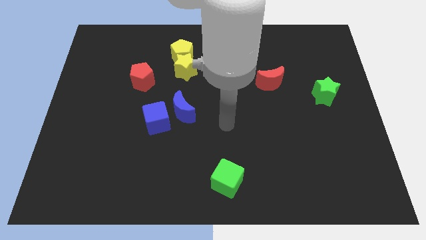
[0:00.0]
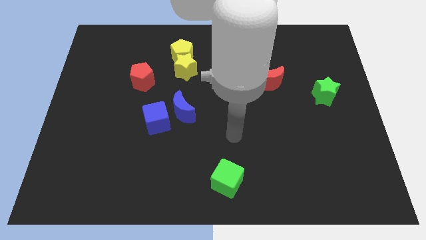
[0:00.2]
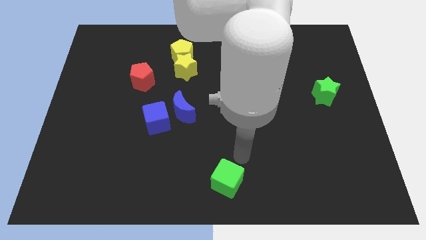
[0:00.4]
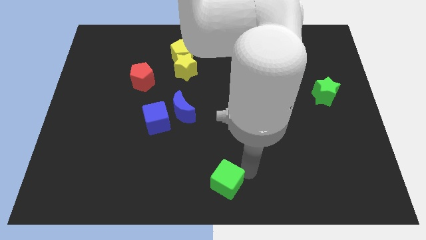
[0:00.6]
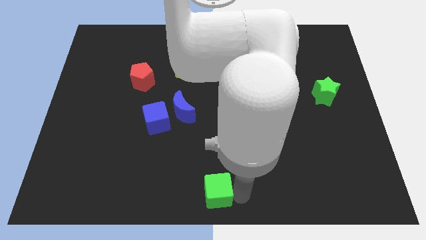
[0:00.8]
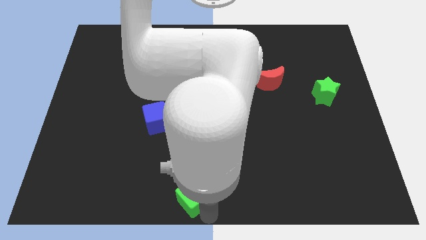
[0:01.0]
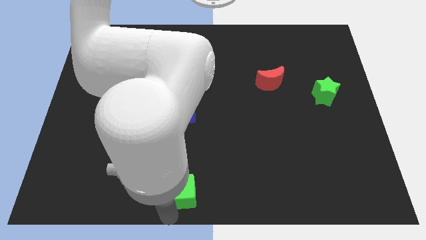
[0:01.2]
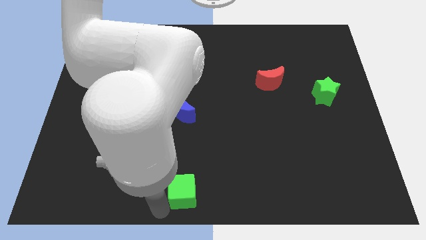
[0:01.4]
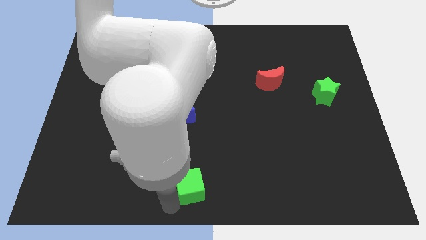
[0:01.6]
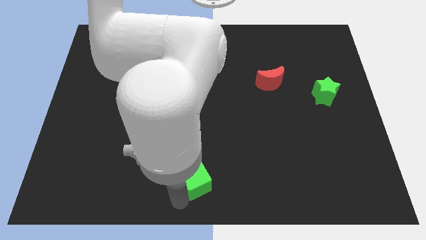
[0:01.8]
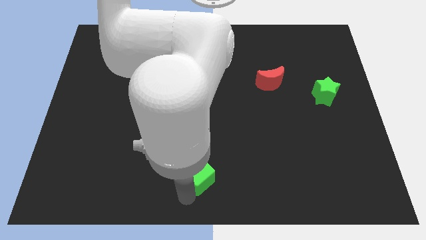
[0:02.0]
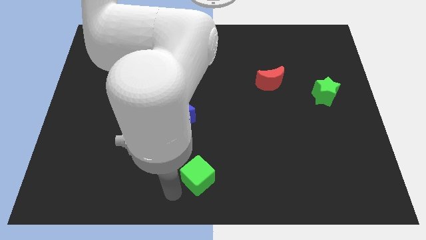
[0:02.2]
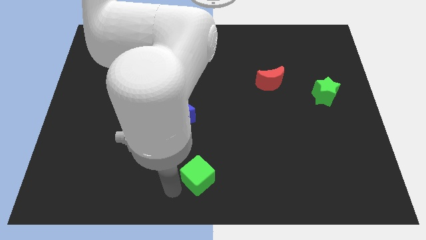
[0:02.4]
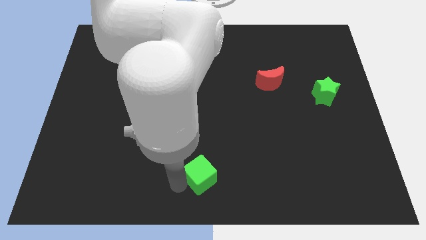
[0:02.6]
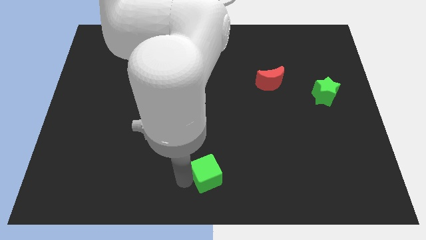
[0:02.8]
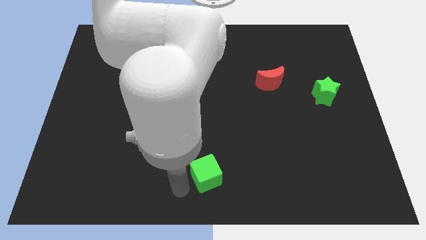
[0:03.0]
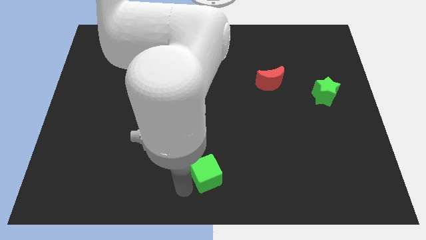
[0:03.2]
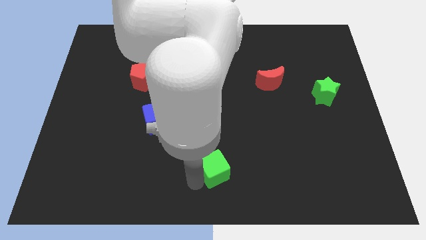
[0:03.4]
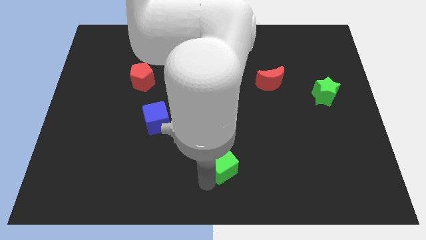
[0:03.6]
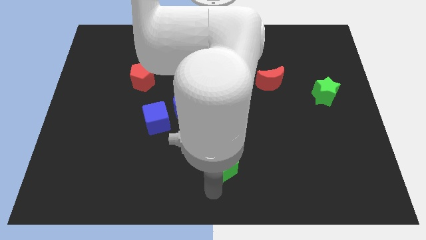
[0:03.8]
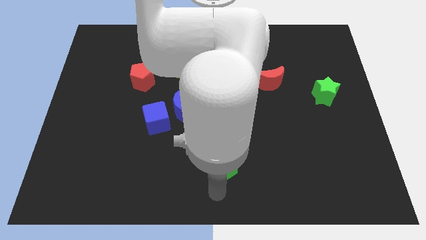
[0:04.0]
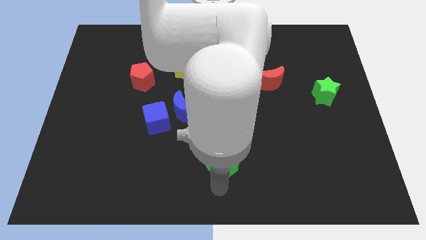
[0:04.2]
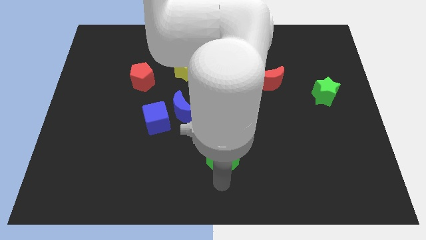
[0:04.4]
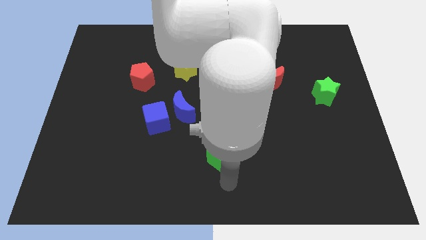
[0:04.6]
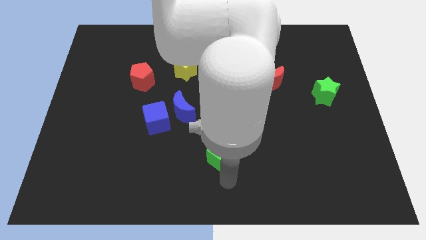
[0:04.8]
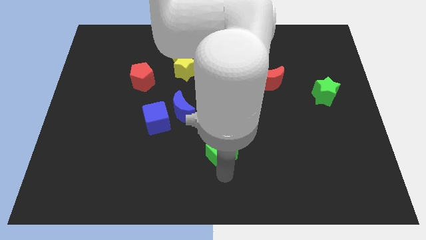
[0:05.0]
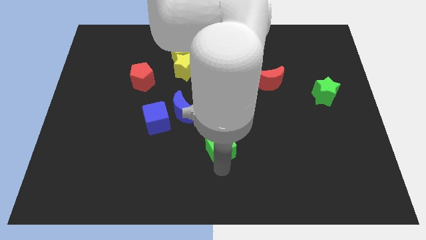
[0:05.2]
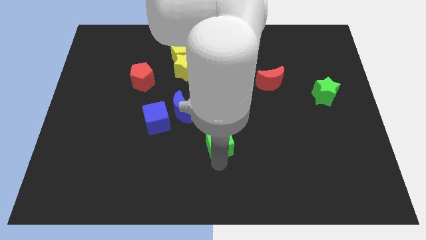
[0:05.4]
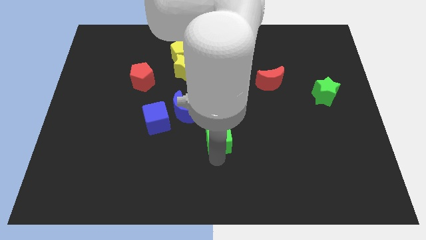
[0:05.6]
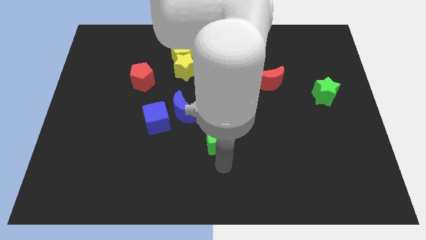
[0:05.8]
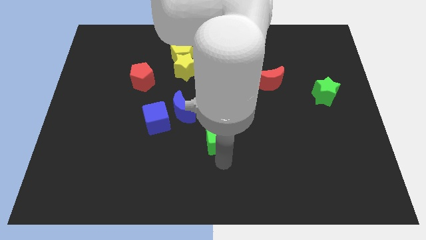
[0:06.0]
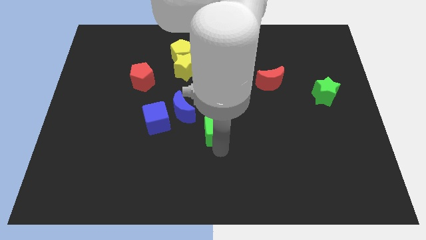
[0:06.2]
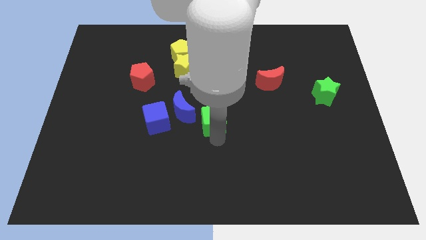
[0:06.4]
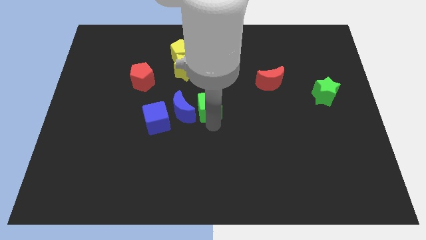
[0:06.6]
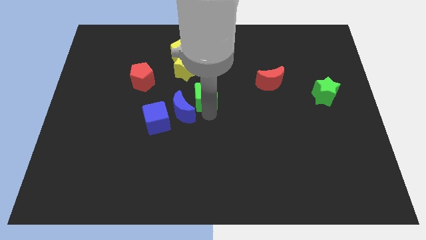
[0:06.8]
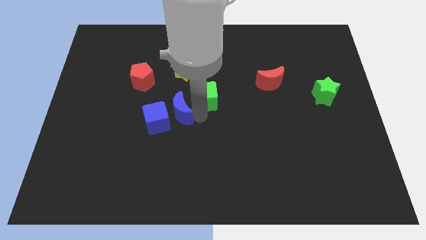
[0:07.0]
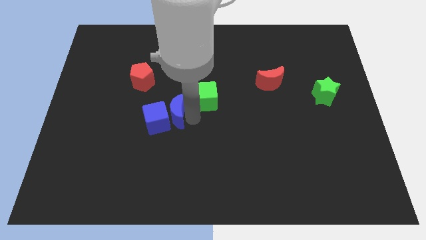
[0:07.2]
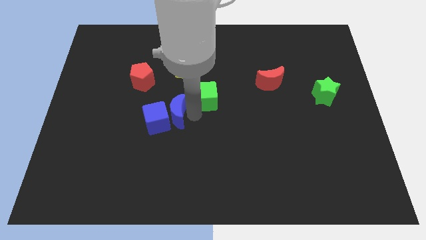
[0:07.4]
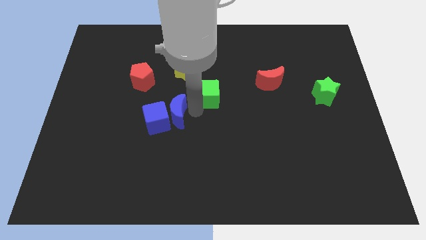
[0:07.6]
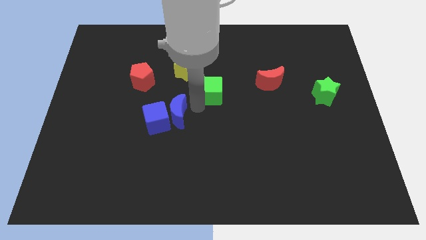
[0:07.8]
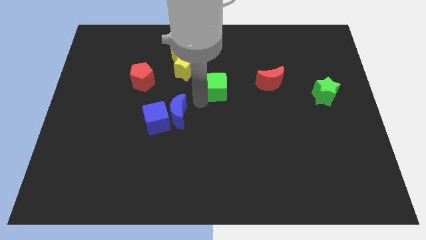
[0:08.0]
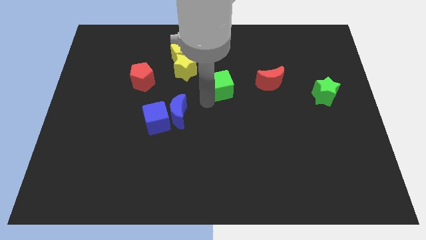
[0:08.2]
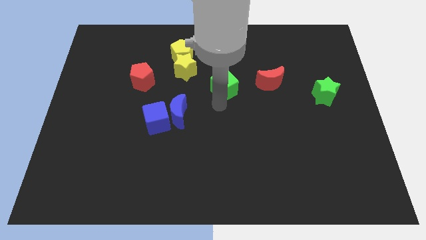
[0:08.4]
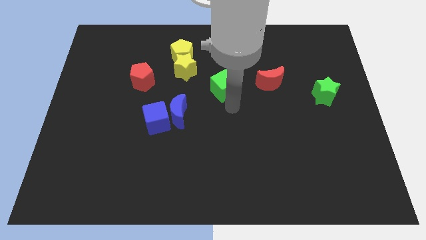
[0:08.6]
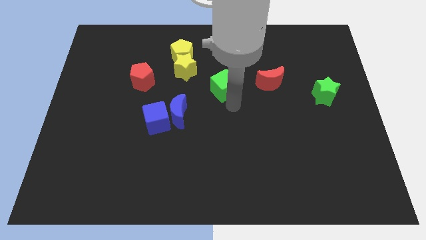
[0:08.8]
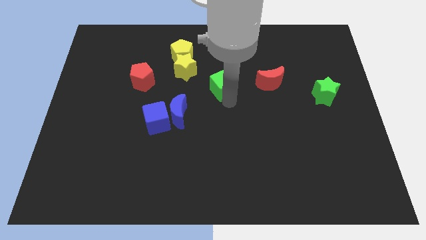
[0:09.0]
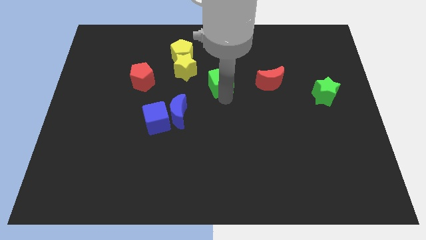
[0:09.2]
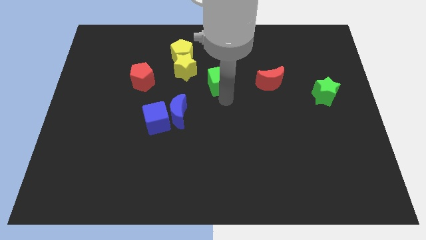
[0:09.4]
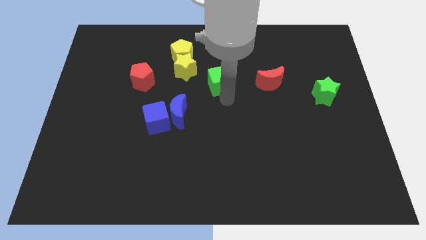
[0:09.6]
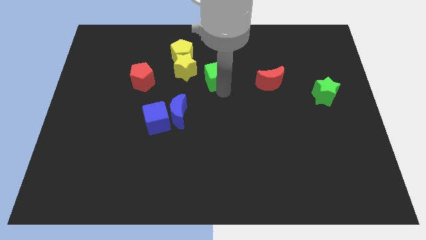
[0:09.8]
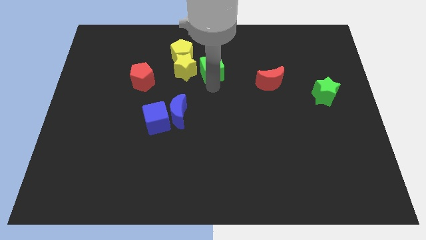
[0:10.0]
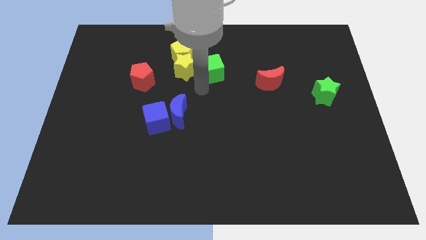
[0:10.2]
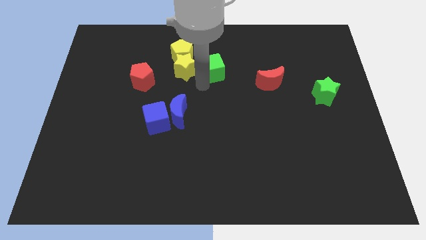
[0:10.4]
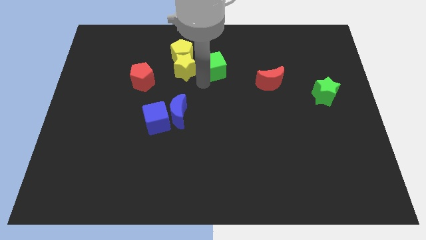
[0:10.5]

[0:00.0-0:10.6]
push the green cube to the right of the yellow pentagon

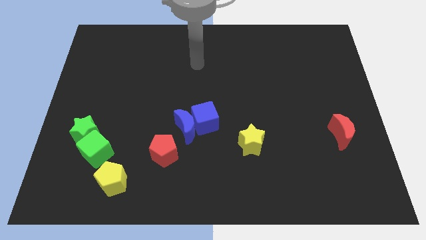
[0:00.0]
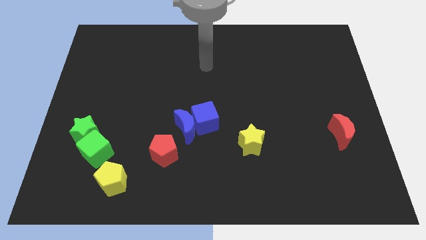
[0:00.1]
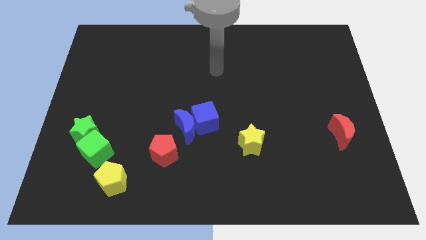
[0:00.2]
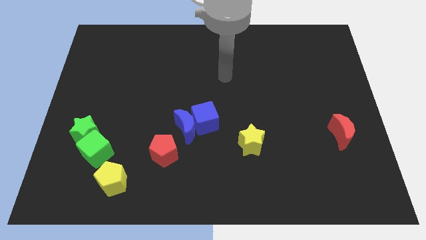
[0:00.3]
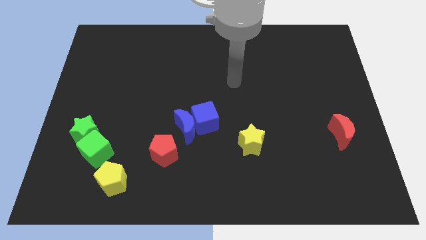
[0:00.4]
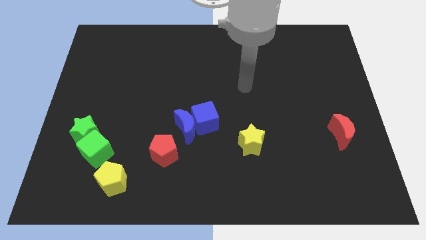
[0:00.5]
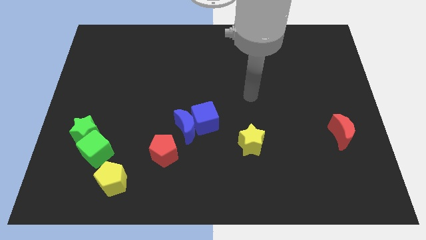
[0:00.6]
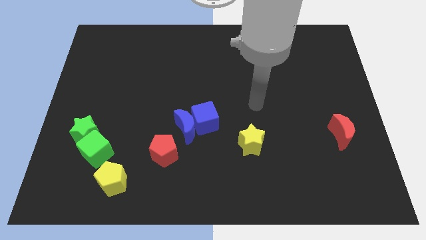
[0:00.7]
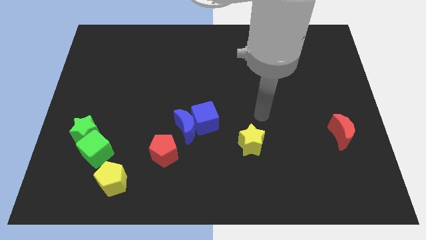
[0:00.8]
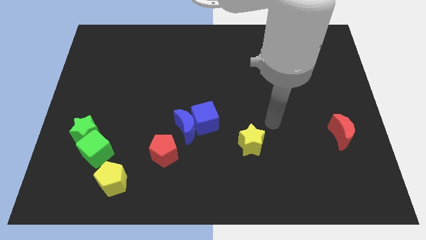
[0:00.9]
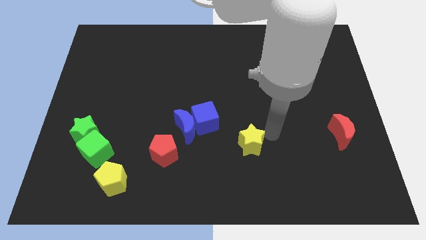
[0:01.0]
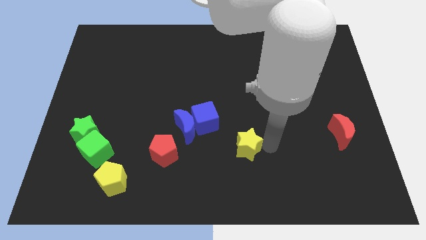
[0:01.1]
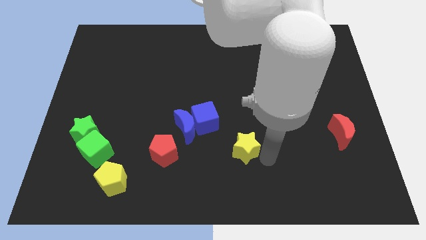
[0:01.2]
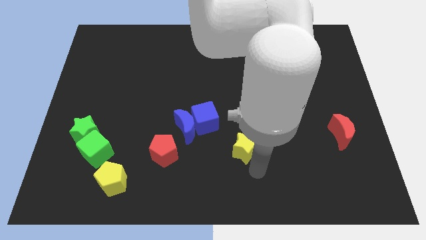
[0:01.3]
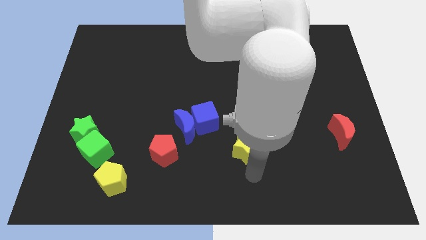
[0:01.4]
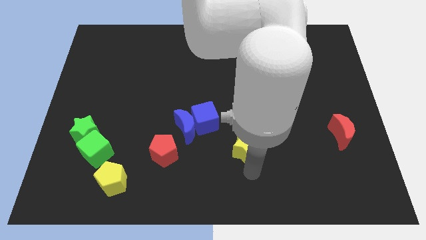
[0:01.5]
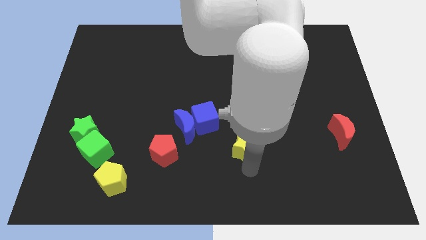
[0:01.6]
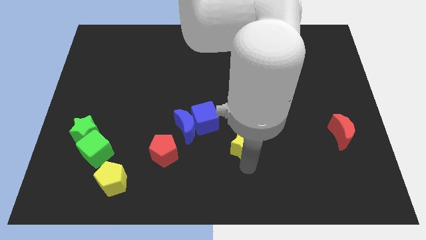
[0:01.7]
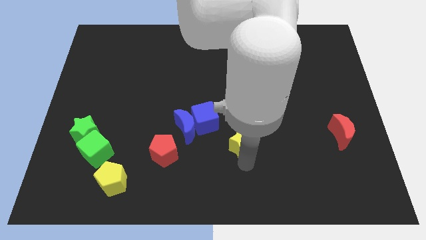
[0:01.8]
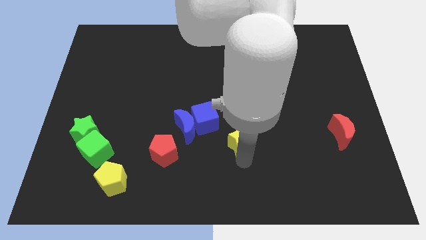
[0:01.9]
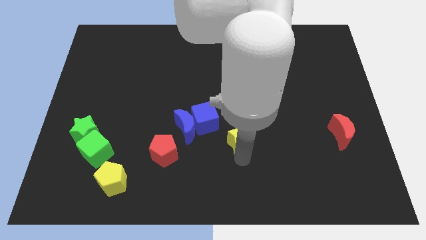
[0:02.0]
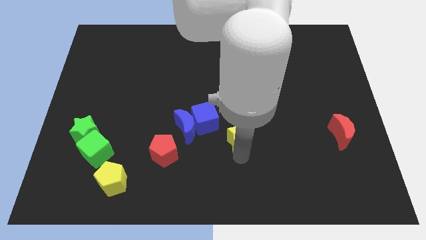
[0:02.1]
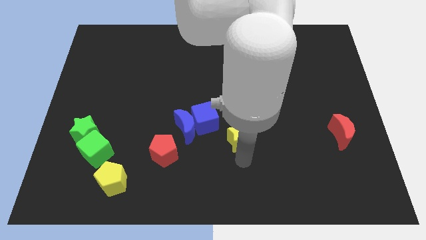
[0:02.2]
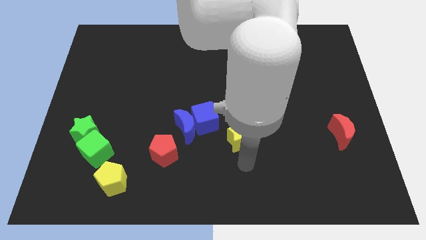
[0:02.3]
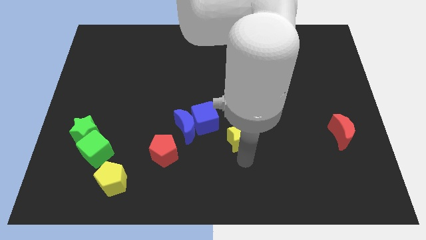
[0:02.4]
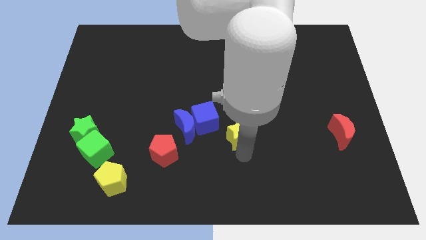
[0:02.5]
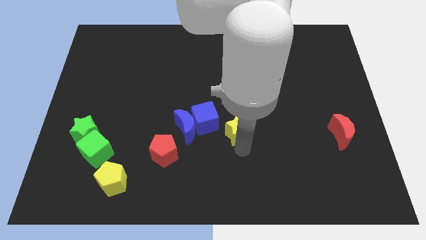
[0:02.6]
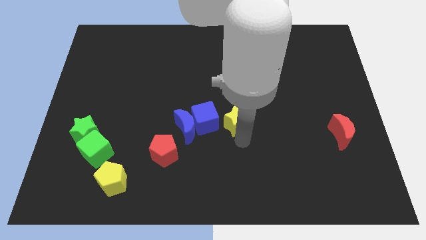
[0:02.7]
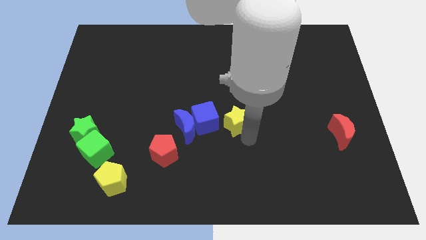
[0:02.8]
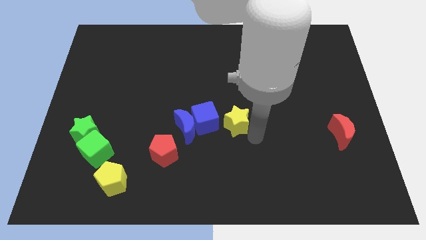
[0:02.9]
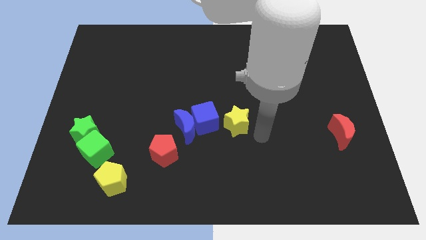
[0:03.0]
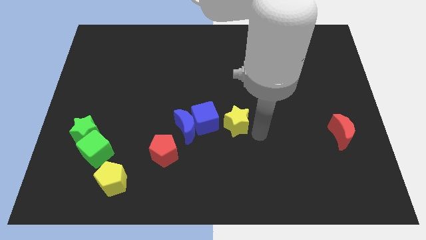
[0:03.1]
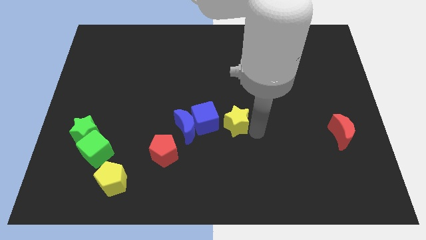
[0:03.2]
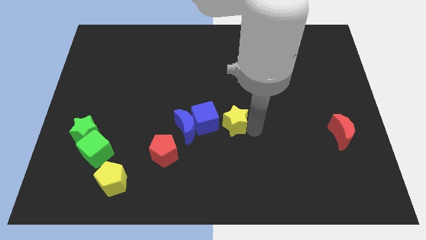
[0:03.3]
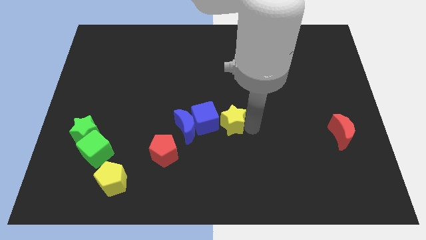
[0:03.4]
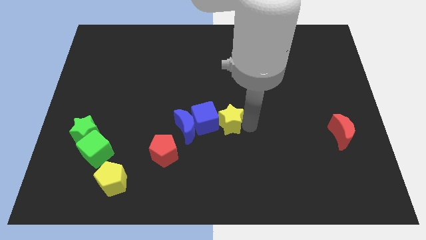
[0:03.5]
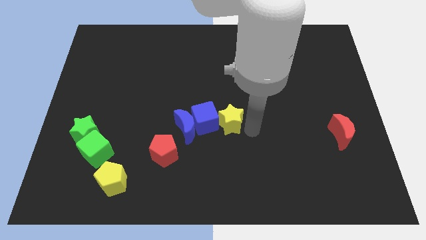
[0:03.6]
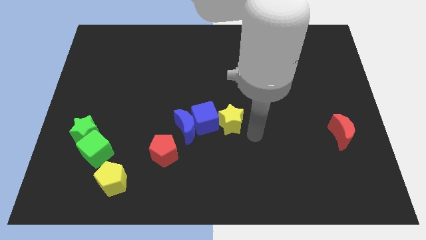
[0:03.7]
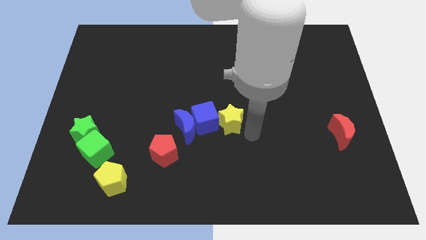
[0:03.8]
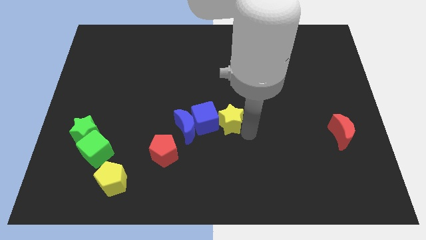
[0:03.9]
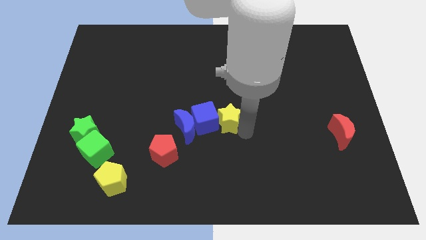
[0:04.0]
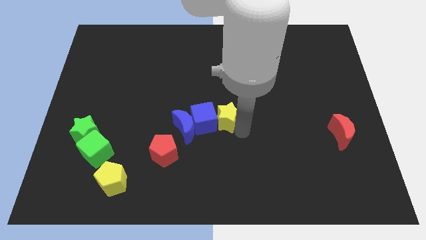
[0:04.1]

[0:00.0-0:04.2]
move the yellow star diagonally up and to the right of the blue moon
